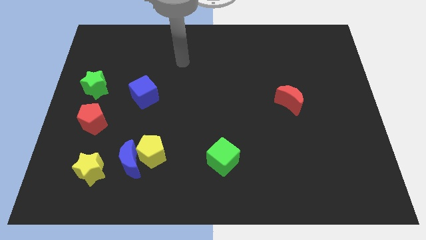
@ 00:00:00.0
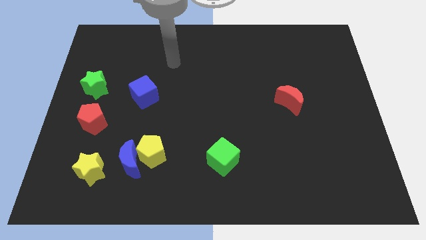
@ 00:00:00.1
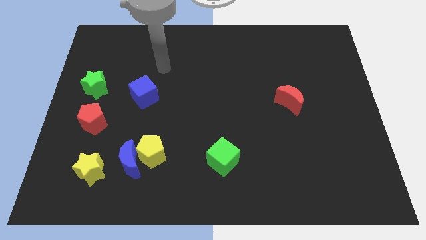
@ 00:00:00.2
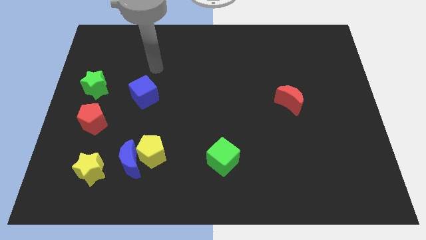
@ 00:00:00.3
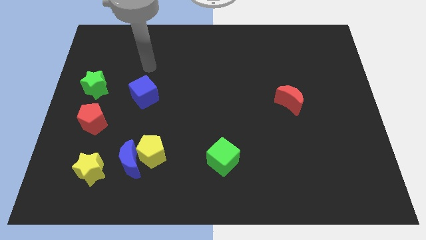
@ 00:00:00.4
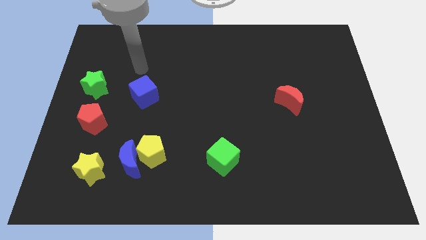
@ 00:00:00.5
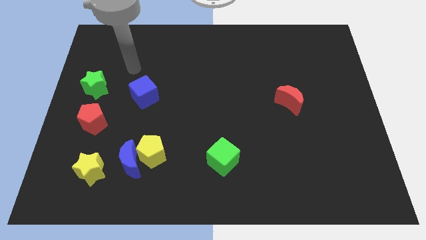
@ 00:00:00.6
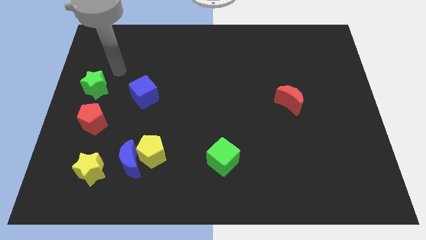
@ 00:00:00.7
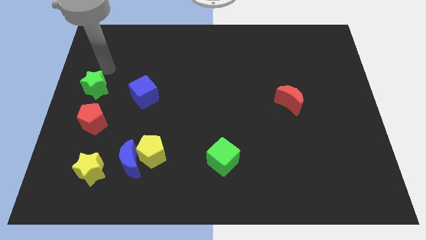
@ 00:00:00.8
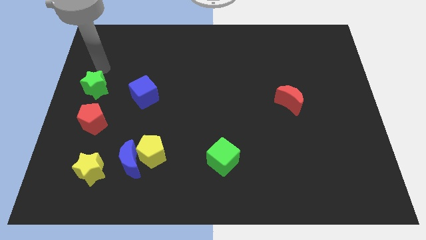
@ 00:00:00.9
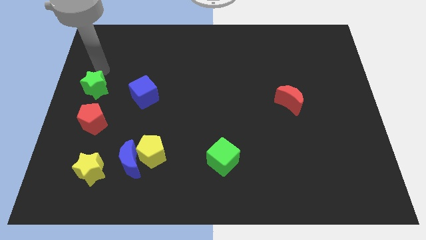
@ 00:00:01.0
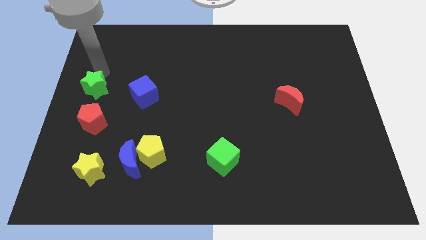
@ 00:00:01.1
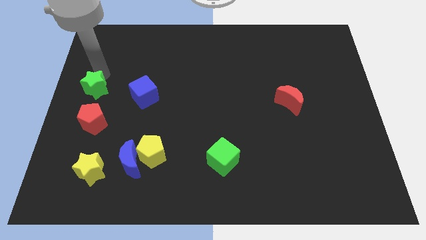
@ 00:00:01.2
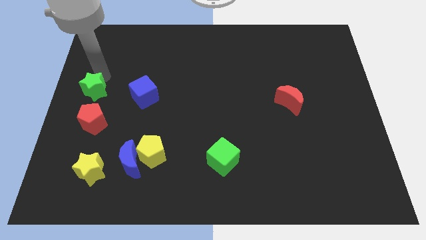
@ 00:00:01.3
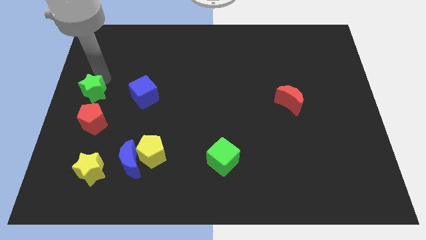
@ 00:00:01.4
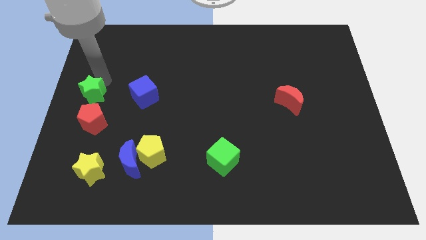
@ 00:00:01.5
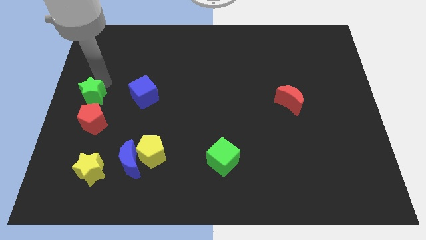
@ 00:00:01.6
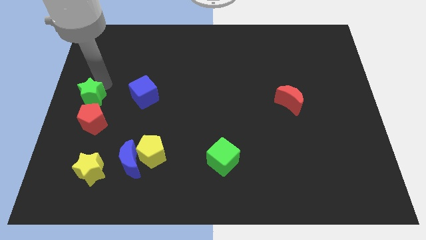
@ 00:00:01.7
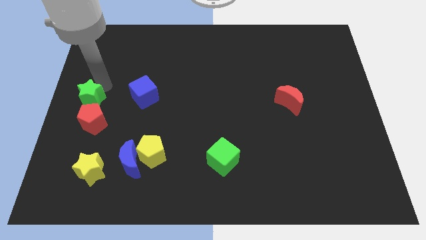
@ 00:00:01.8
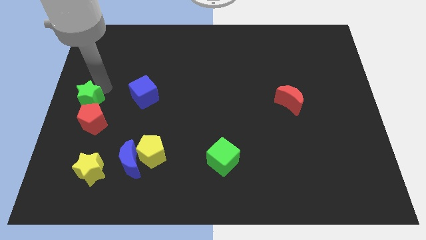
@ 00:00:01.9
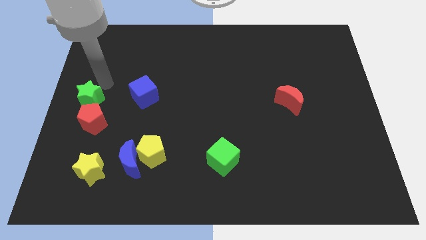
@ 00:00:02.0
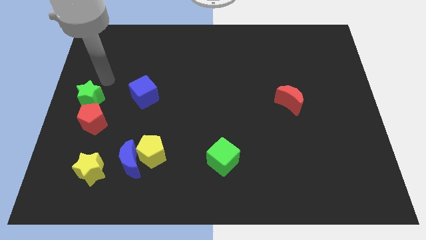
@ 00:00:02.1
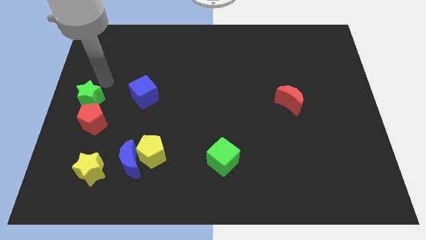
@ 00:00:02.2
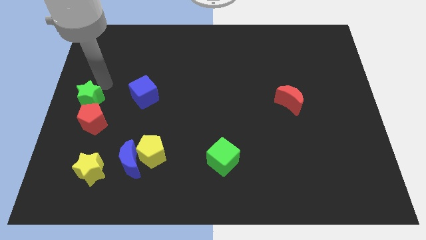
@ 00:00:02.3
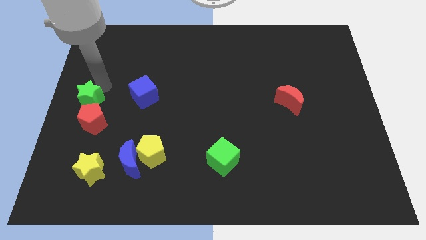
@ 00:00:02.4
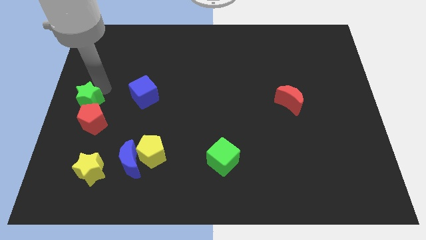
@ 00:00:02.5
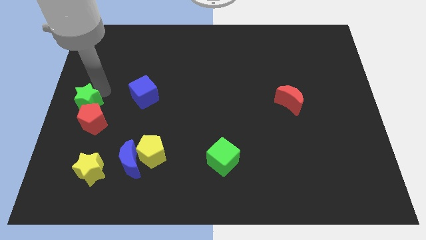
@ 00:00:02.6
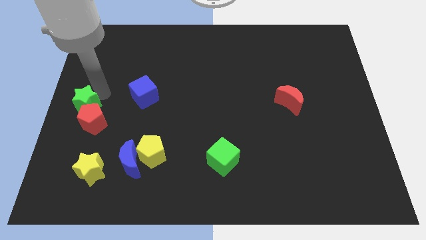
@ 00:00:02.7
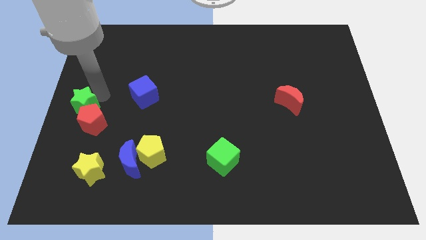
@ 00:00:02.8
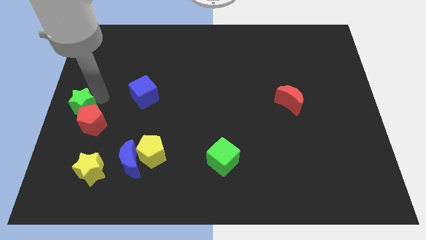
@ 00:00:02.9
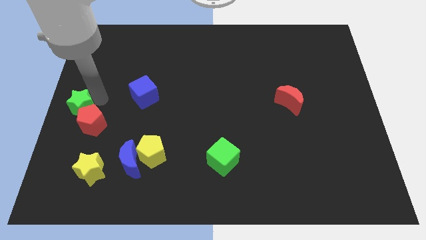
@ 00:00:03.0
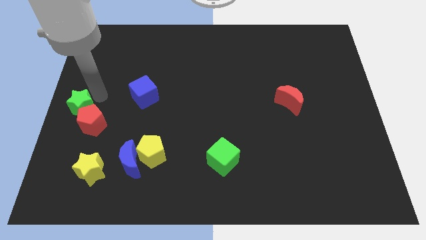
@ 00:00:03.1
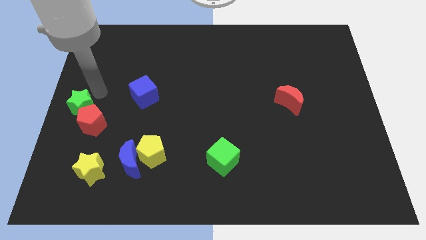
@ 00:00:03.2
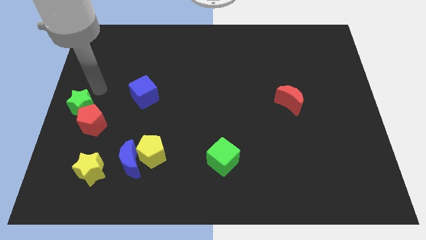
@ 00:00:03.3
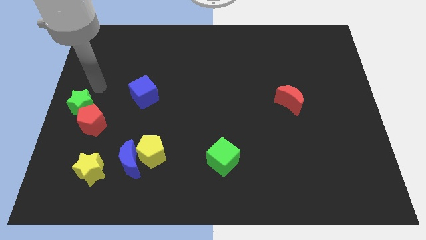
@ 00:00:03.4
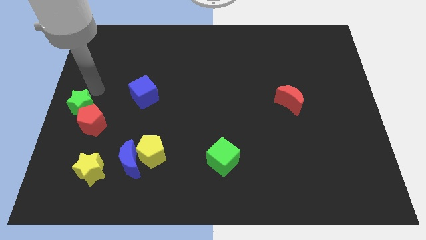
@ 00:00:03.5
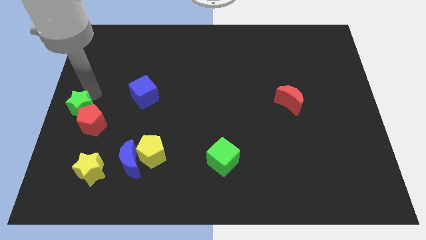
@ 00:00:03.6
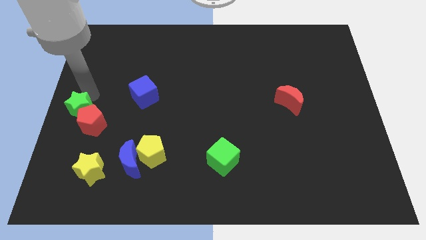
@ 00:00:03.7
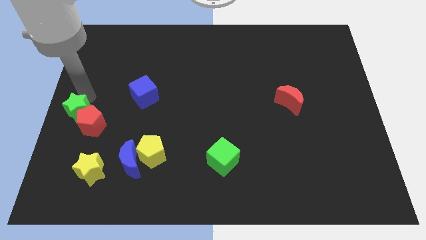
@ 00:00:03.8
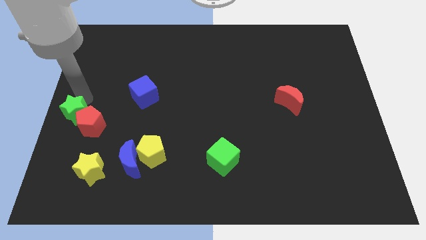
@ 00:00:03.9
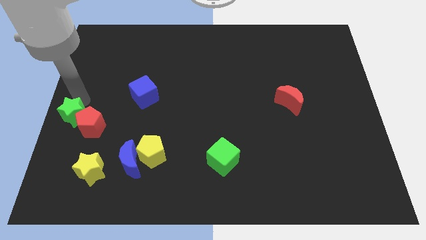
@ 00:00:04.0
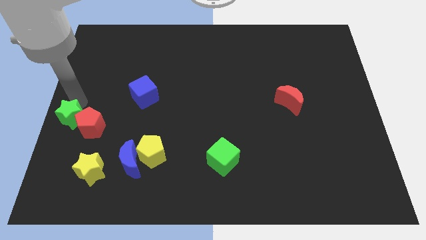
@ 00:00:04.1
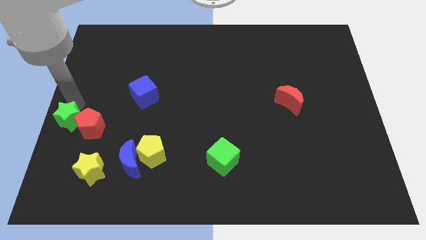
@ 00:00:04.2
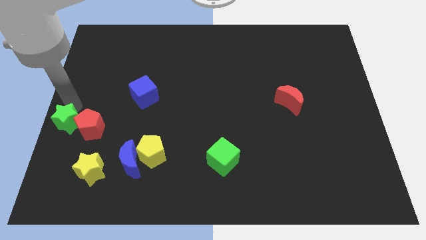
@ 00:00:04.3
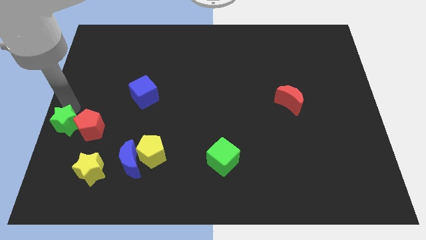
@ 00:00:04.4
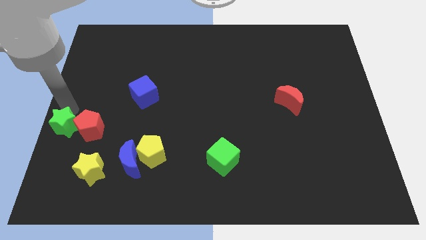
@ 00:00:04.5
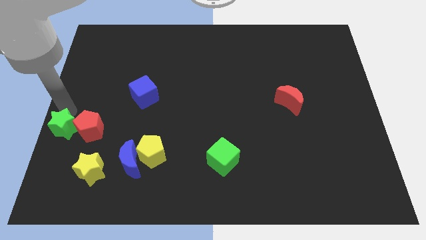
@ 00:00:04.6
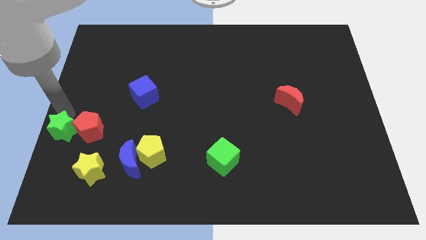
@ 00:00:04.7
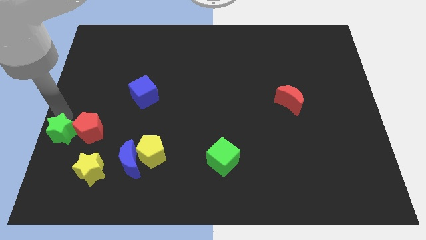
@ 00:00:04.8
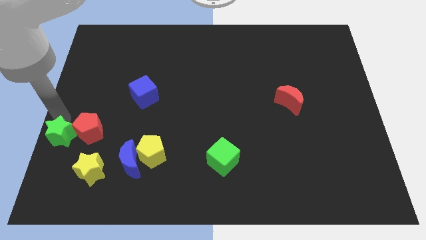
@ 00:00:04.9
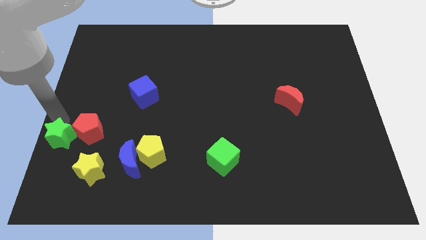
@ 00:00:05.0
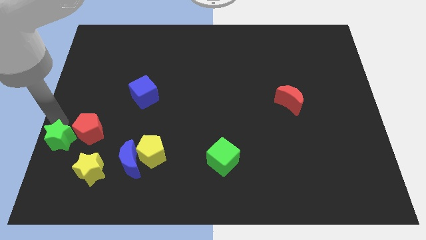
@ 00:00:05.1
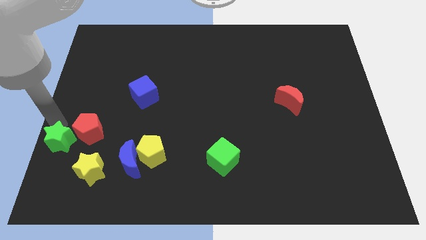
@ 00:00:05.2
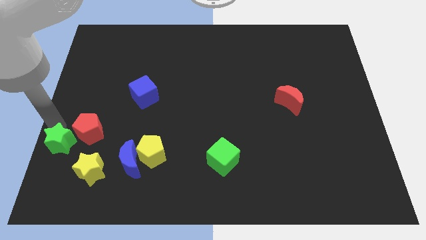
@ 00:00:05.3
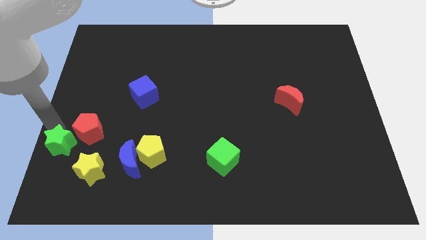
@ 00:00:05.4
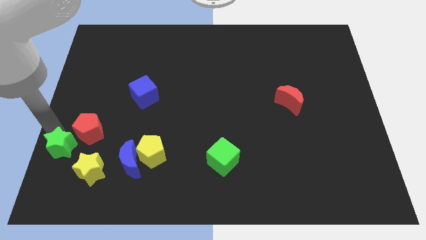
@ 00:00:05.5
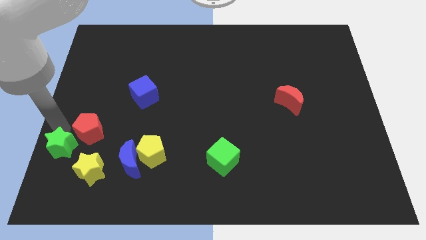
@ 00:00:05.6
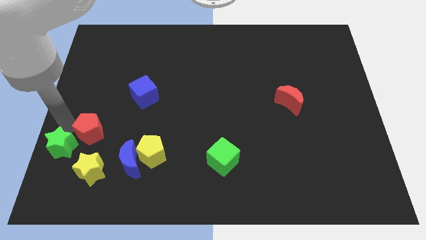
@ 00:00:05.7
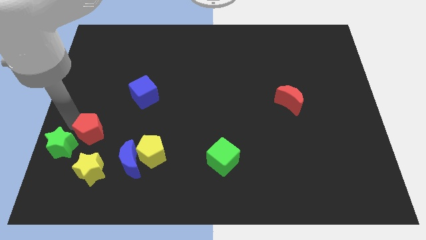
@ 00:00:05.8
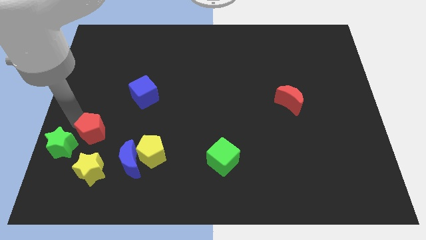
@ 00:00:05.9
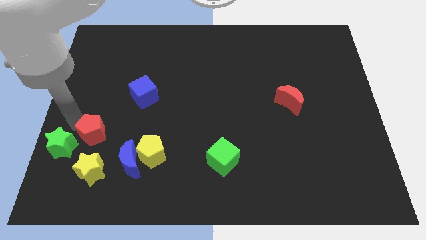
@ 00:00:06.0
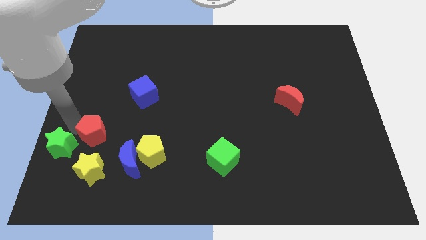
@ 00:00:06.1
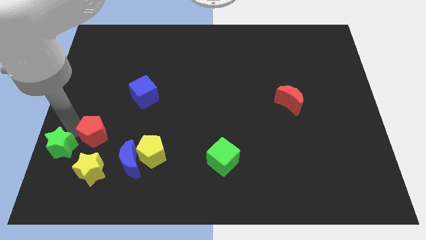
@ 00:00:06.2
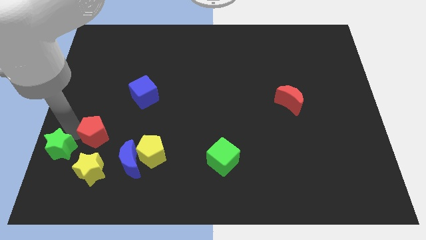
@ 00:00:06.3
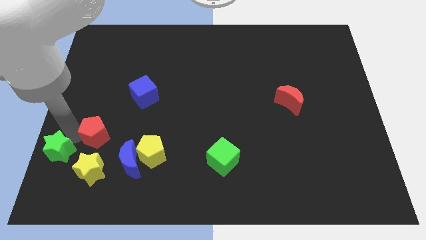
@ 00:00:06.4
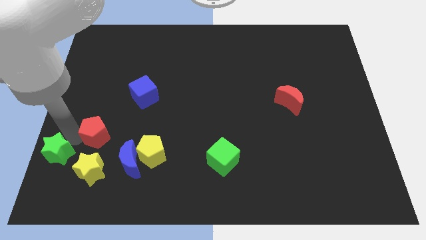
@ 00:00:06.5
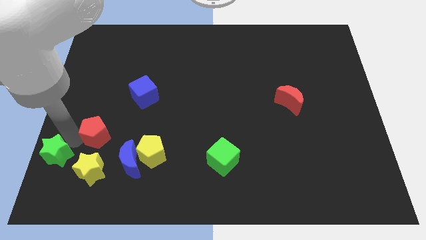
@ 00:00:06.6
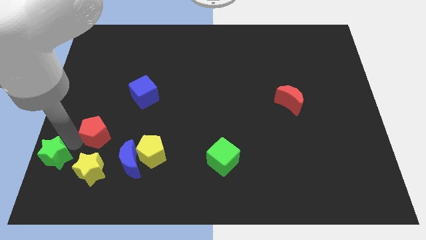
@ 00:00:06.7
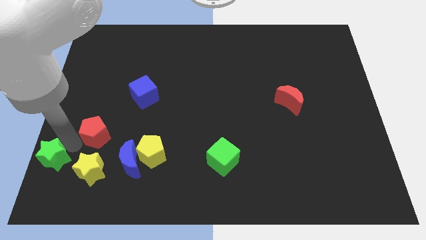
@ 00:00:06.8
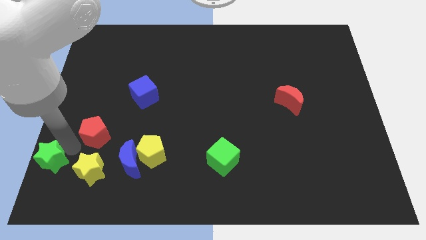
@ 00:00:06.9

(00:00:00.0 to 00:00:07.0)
move the green star to the bottom left corner
